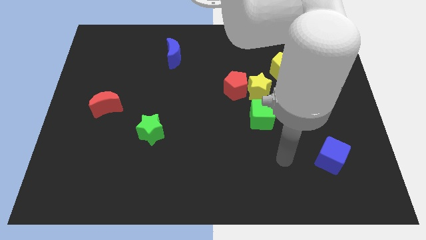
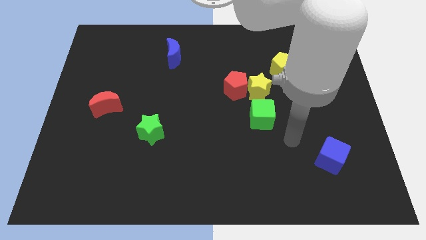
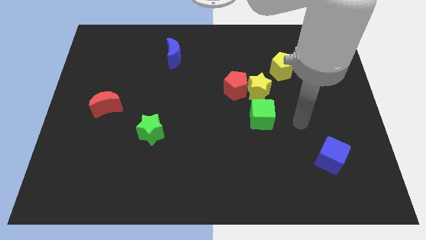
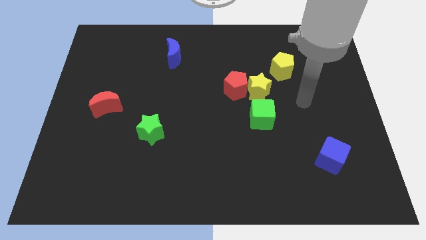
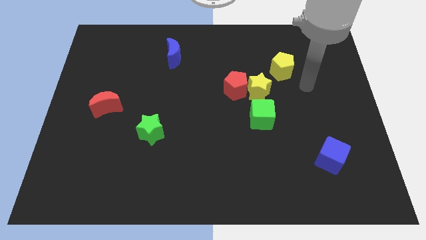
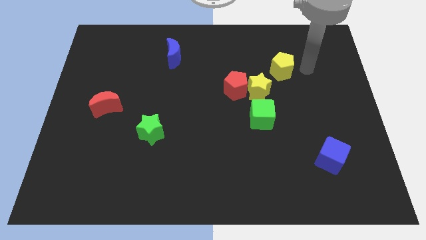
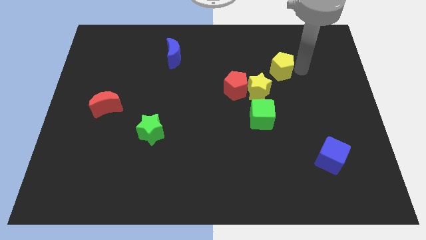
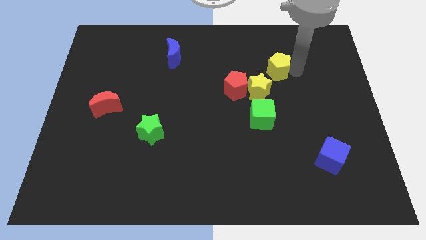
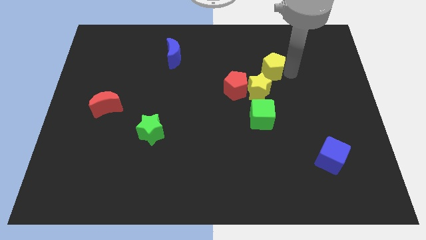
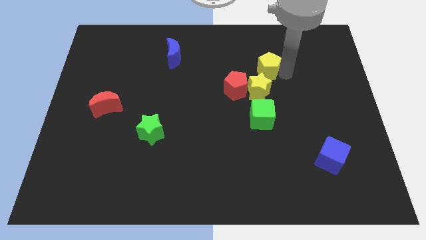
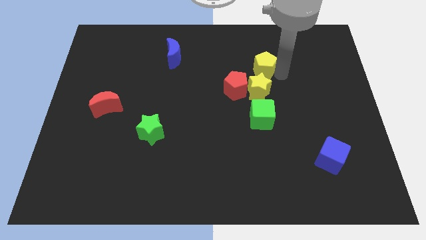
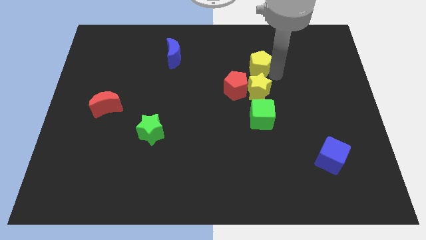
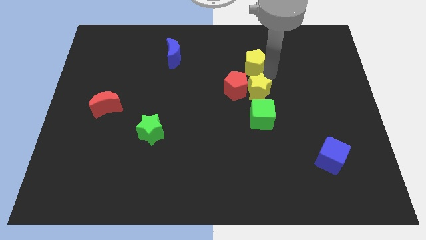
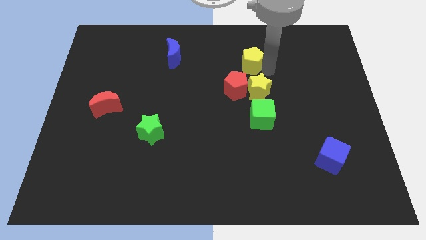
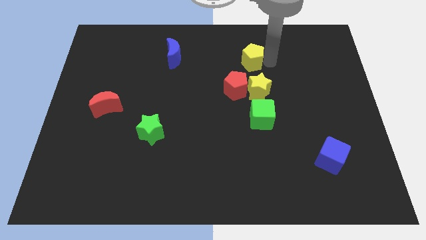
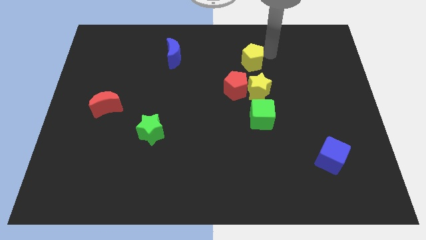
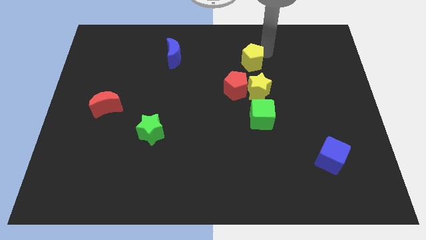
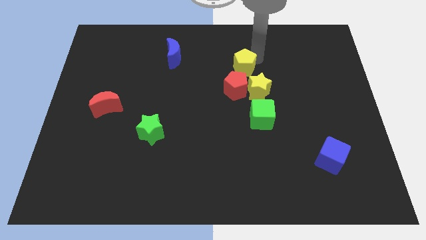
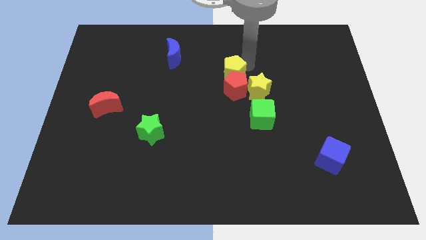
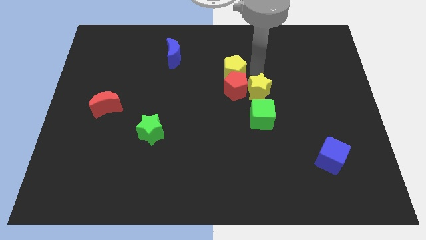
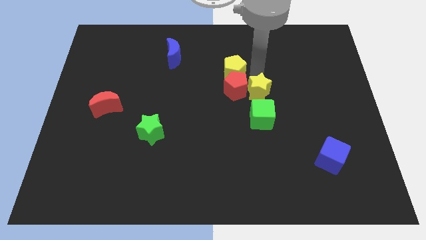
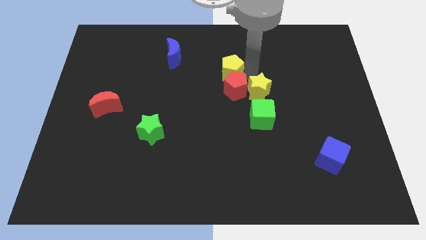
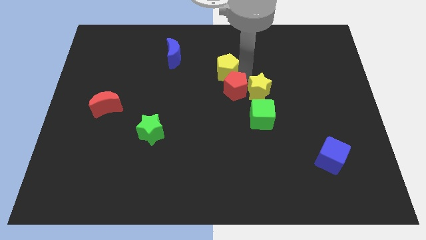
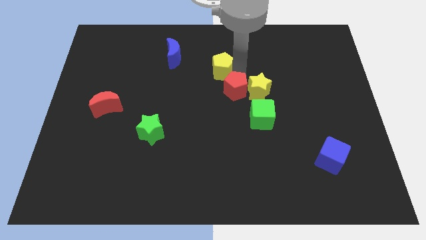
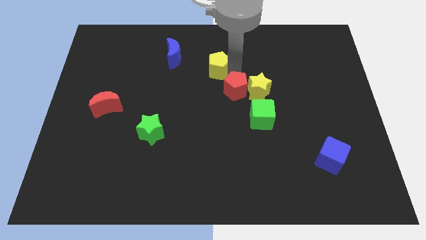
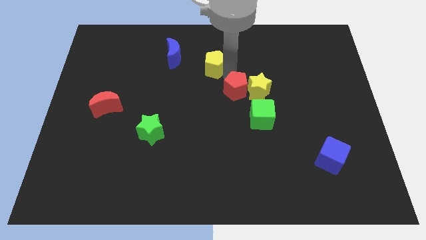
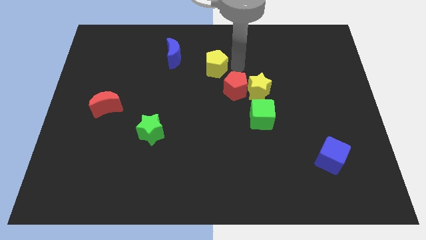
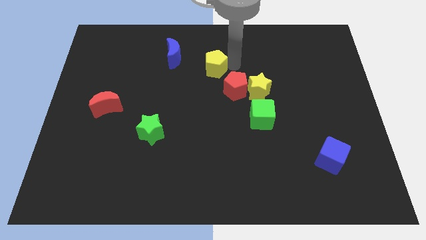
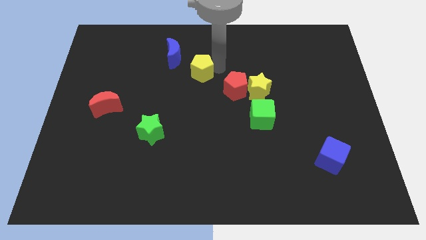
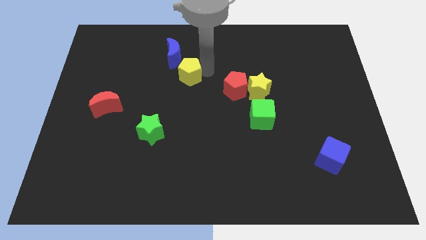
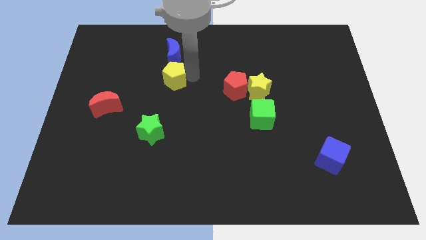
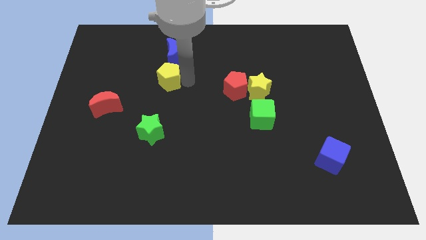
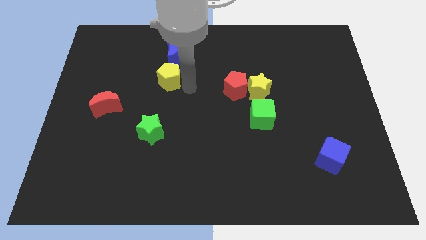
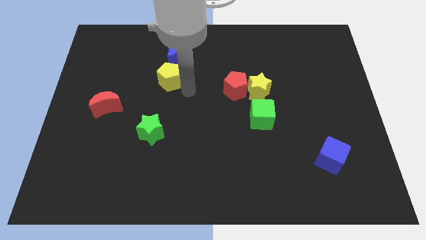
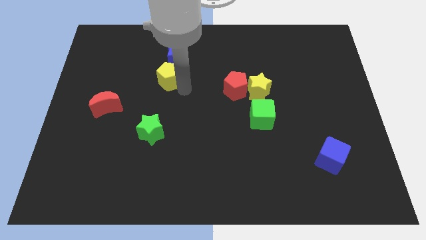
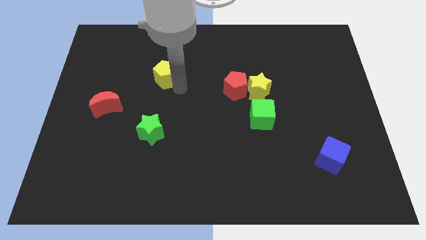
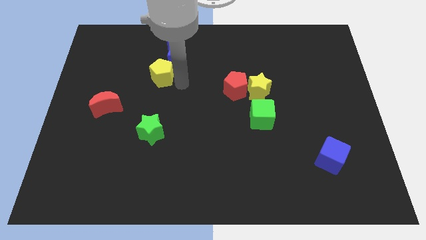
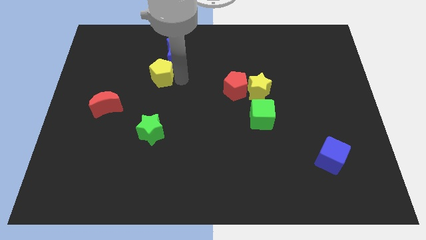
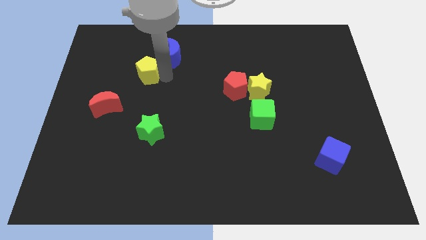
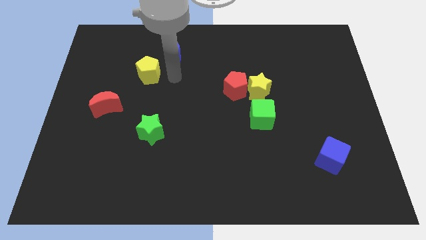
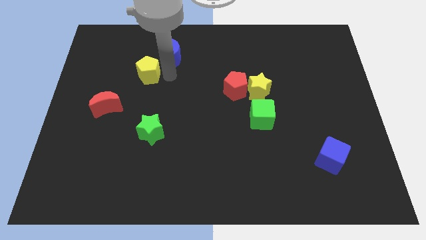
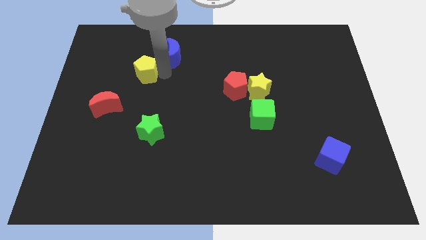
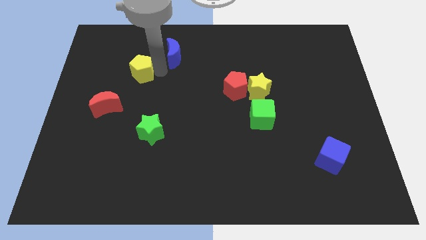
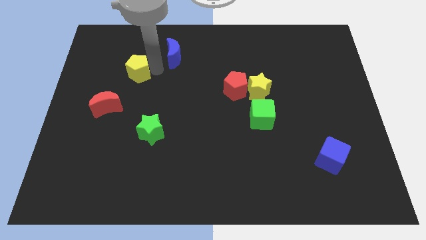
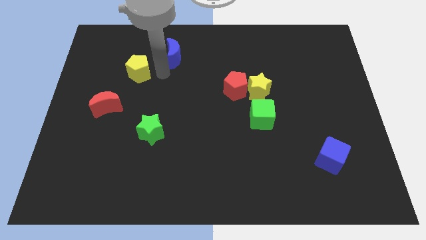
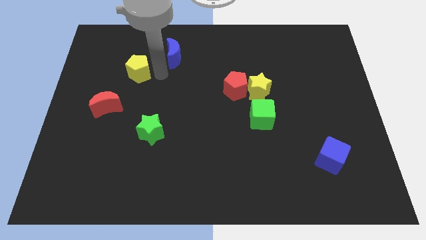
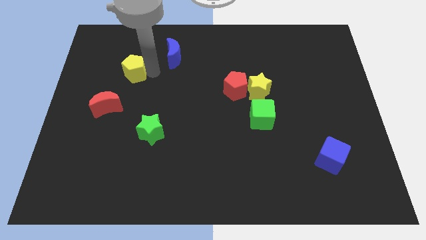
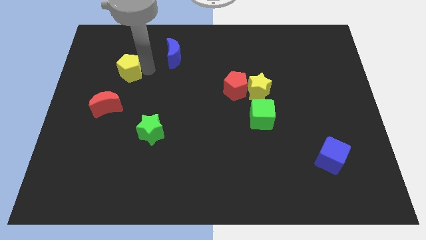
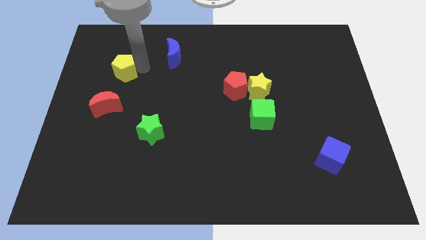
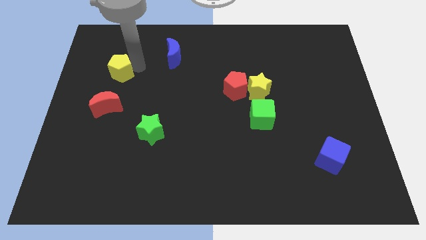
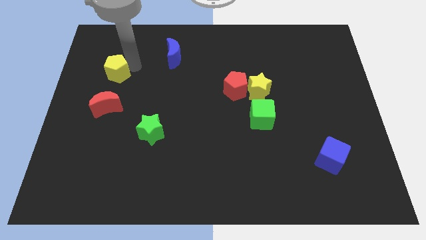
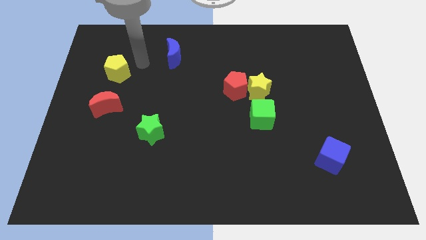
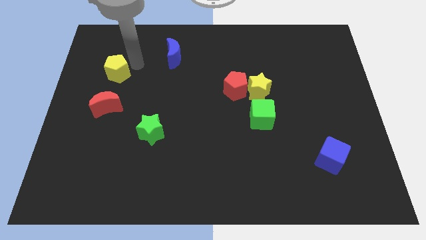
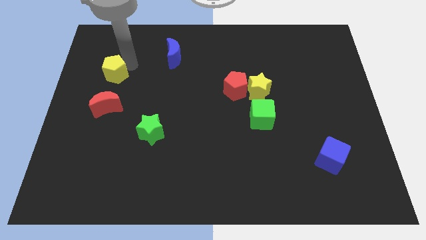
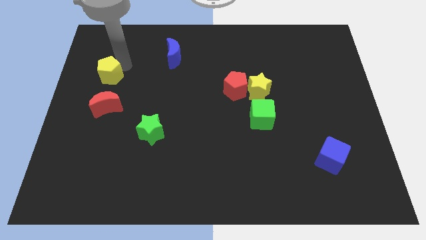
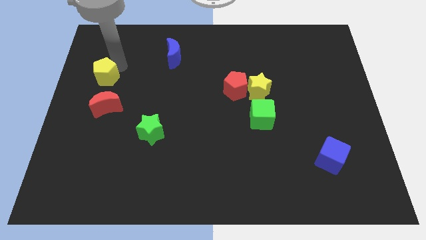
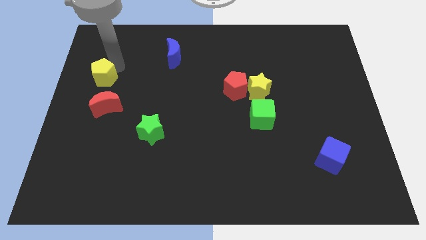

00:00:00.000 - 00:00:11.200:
move the yellow pentagon to the left side of the board
